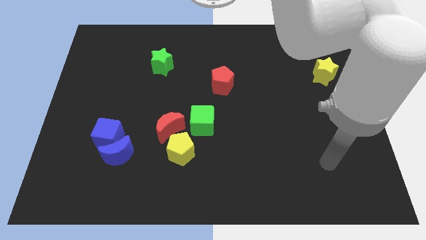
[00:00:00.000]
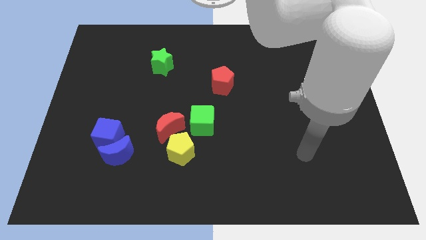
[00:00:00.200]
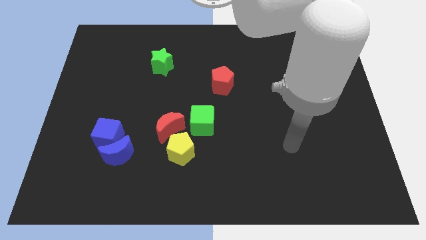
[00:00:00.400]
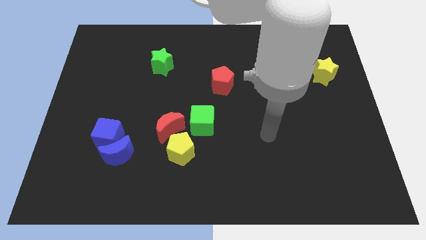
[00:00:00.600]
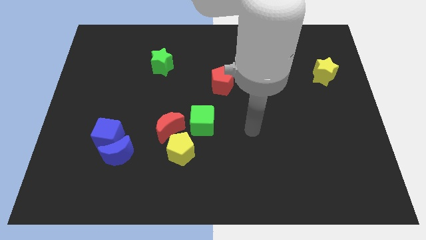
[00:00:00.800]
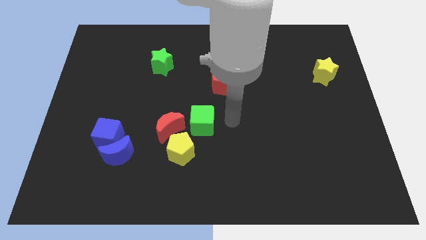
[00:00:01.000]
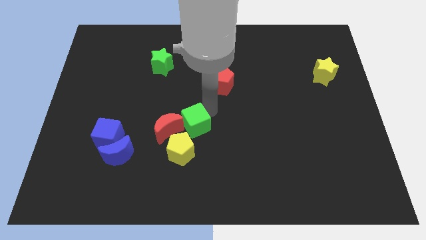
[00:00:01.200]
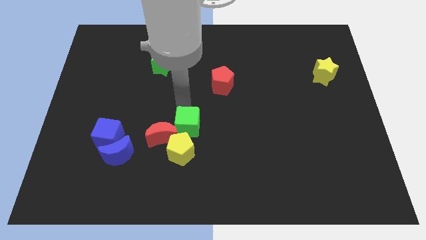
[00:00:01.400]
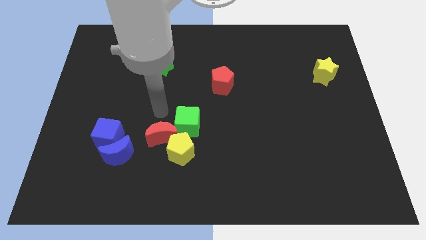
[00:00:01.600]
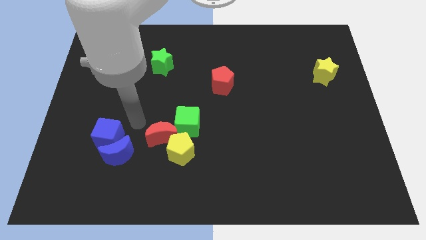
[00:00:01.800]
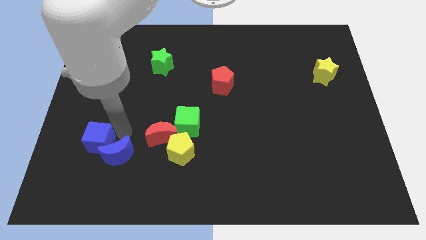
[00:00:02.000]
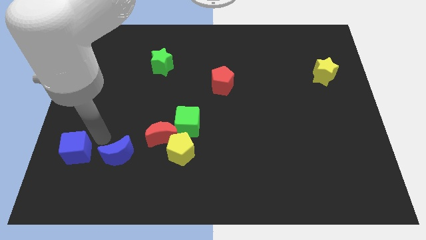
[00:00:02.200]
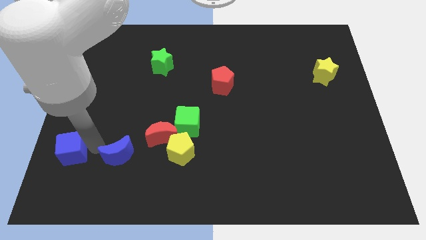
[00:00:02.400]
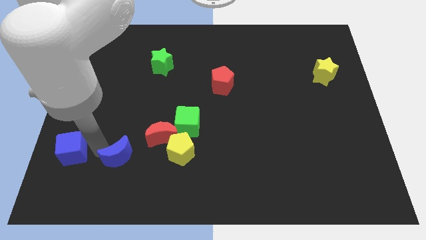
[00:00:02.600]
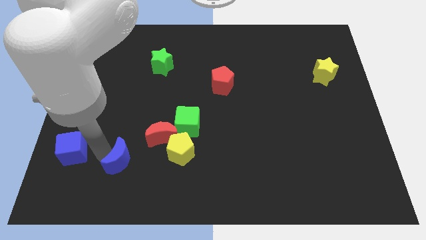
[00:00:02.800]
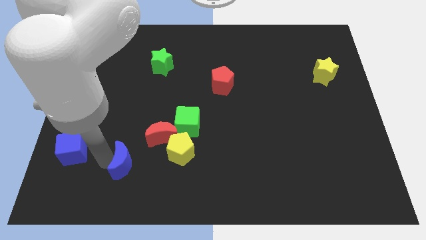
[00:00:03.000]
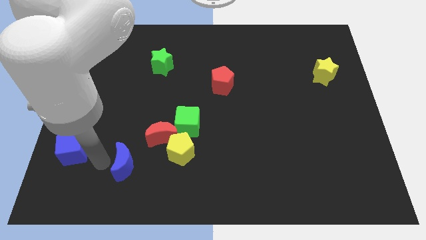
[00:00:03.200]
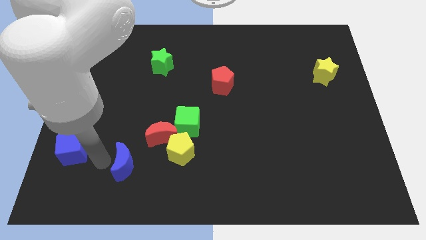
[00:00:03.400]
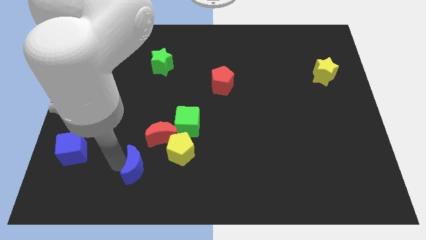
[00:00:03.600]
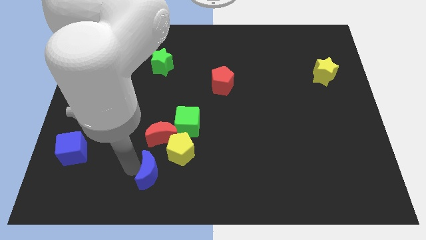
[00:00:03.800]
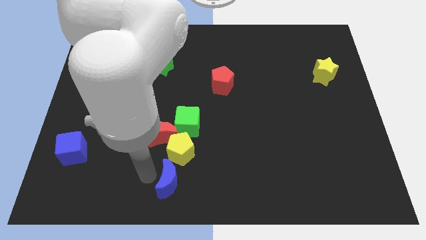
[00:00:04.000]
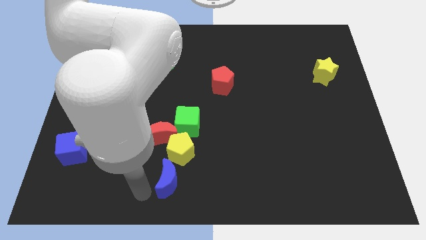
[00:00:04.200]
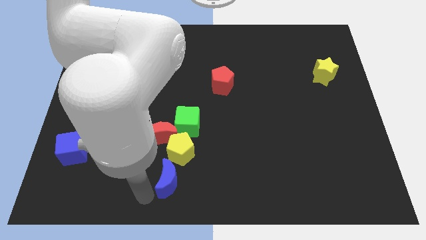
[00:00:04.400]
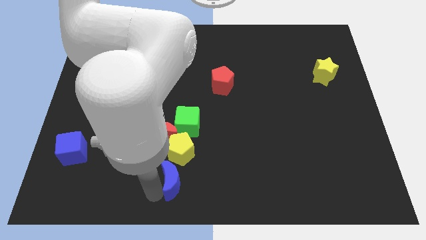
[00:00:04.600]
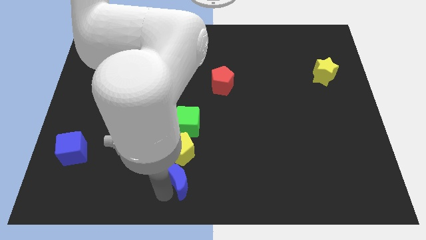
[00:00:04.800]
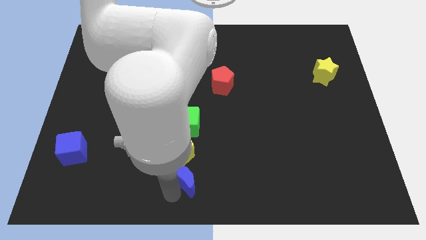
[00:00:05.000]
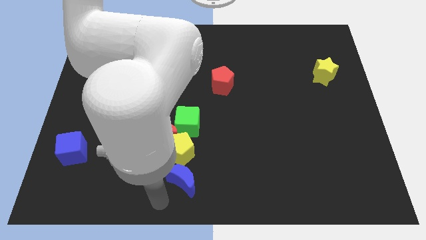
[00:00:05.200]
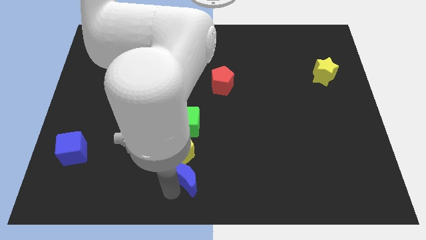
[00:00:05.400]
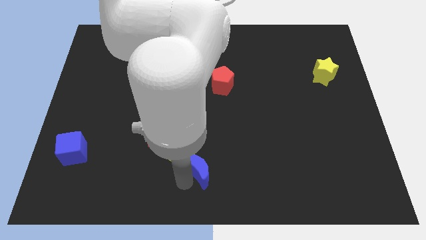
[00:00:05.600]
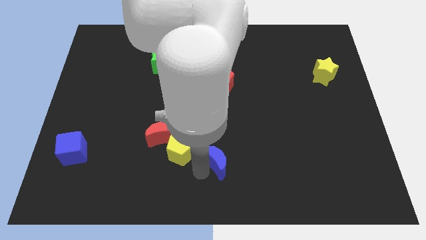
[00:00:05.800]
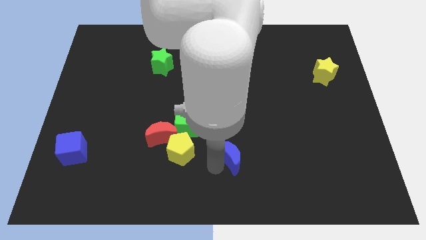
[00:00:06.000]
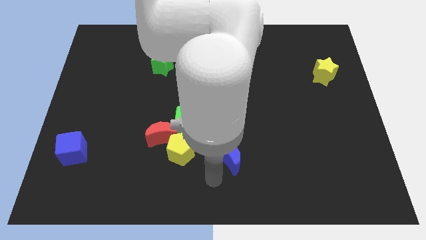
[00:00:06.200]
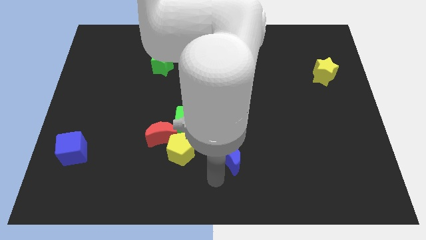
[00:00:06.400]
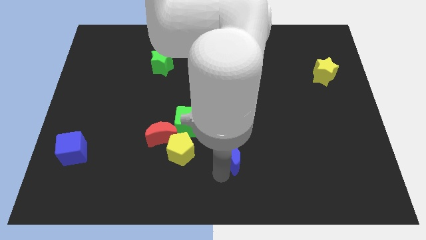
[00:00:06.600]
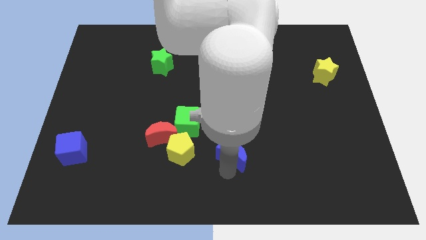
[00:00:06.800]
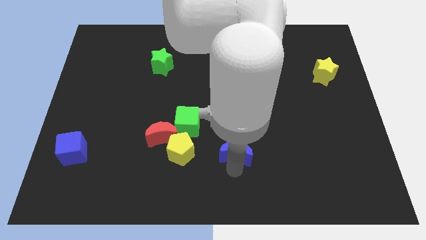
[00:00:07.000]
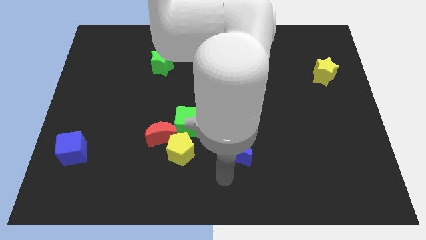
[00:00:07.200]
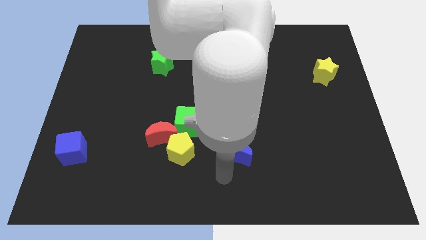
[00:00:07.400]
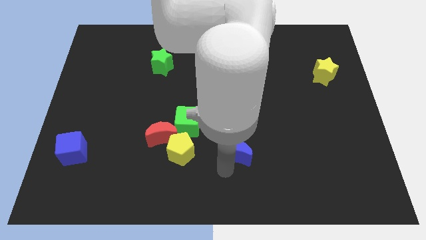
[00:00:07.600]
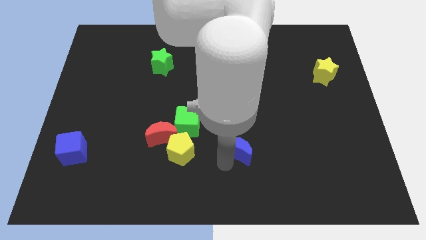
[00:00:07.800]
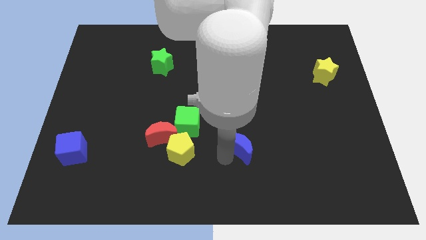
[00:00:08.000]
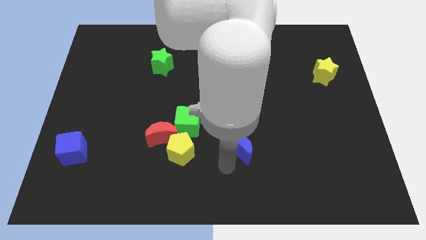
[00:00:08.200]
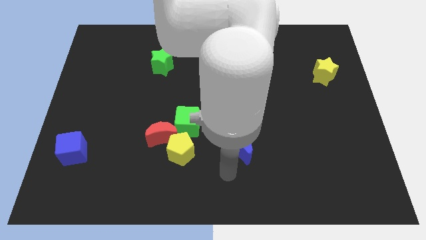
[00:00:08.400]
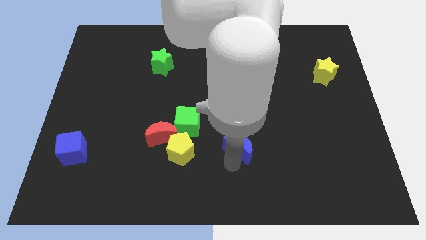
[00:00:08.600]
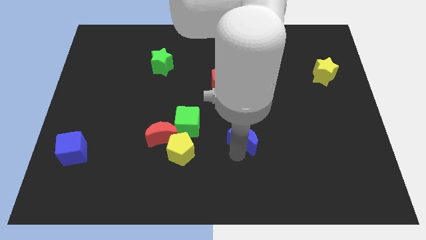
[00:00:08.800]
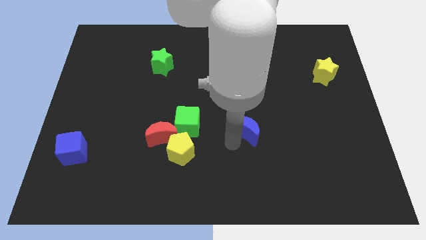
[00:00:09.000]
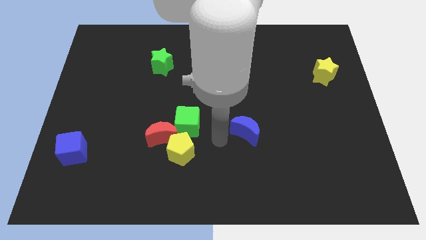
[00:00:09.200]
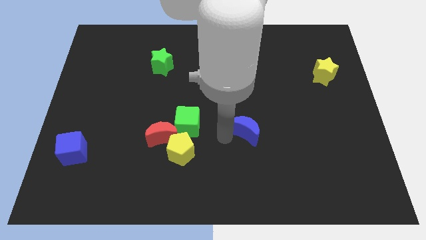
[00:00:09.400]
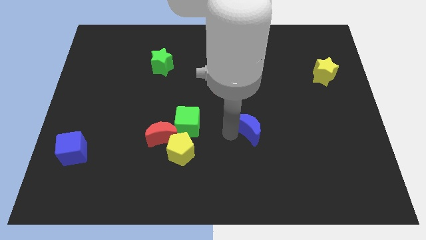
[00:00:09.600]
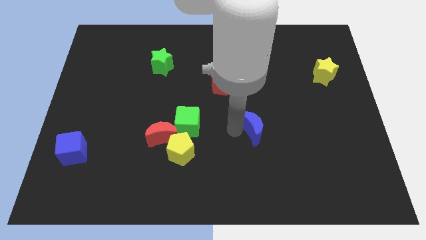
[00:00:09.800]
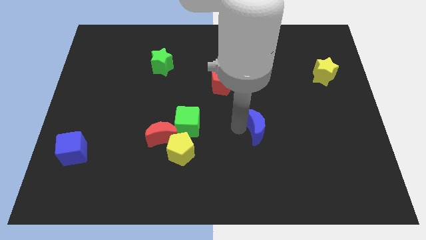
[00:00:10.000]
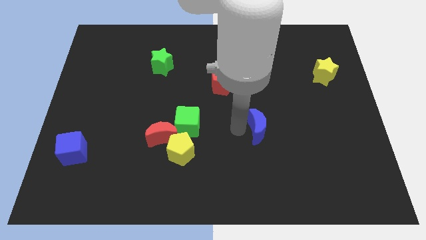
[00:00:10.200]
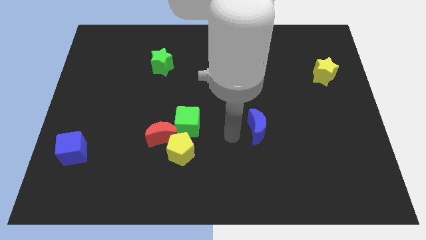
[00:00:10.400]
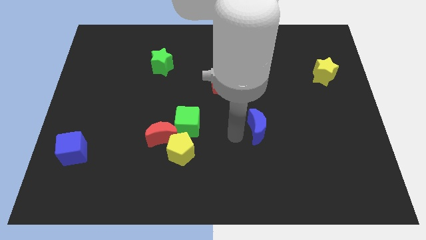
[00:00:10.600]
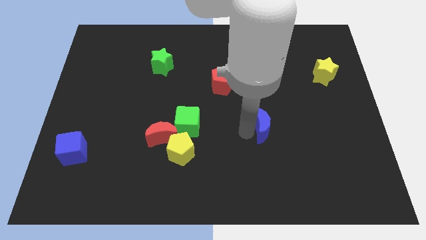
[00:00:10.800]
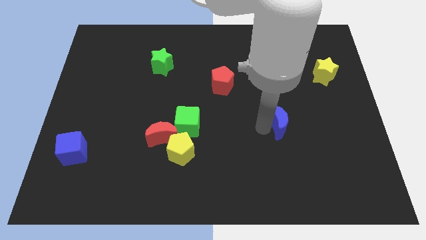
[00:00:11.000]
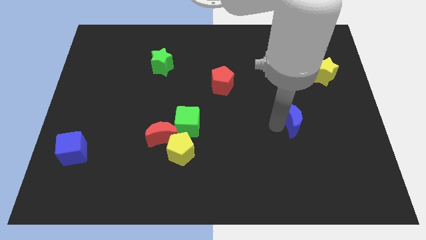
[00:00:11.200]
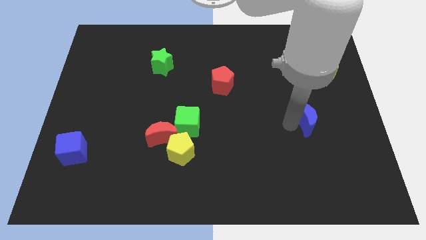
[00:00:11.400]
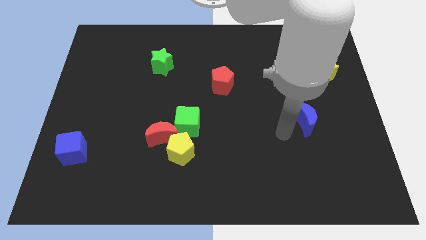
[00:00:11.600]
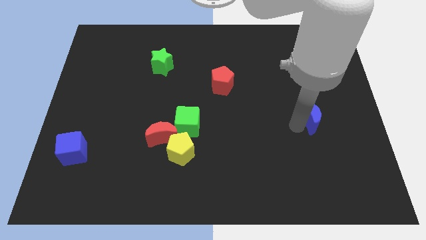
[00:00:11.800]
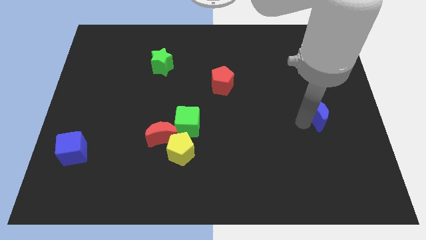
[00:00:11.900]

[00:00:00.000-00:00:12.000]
put the blue moon to the bottom of the yellow star

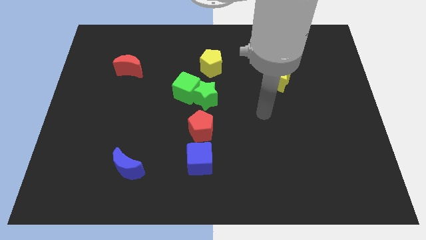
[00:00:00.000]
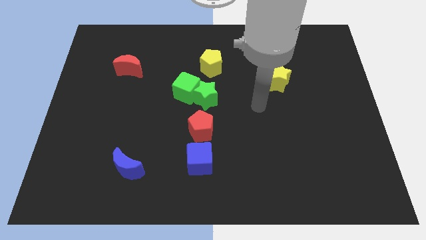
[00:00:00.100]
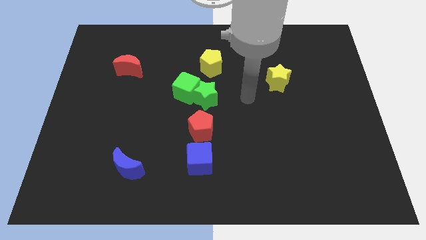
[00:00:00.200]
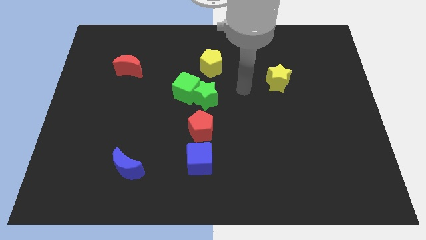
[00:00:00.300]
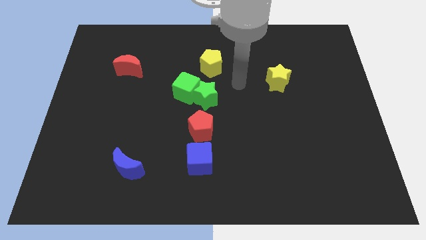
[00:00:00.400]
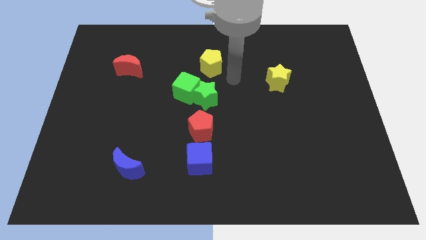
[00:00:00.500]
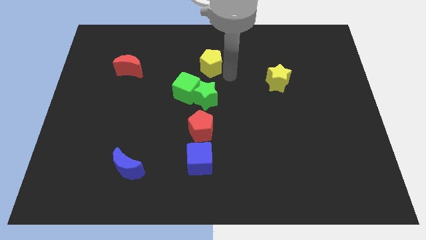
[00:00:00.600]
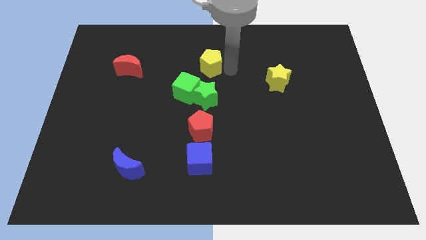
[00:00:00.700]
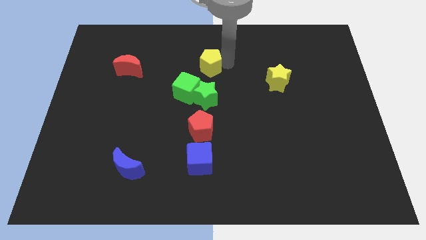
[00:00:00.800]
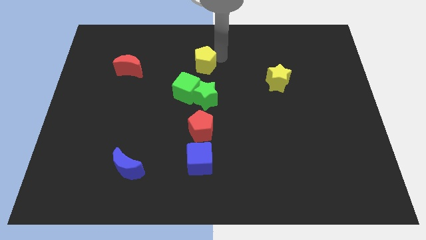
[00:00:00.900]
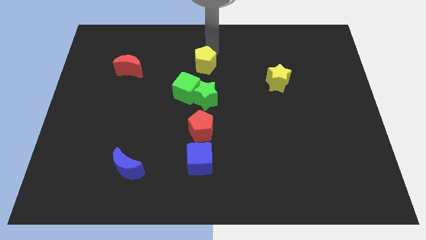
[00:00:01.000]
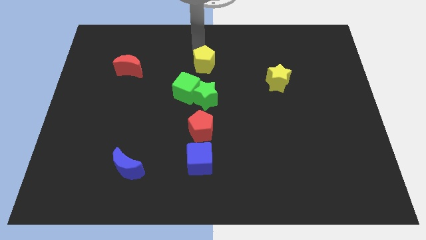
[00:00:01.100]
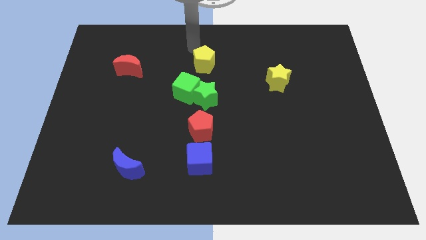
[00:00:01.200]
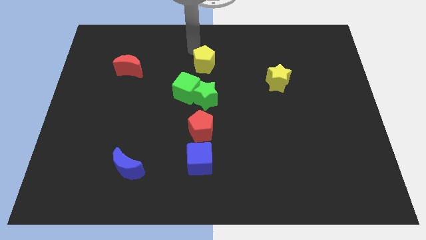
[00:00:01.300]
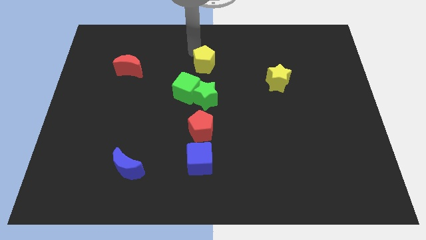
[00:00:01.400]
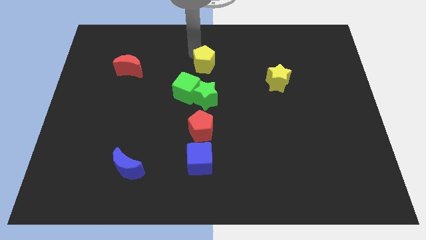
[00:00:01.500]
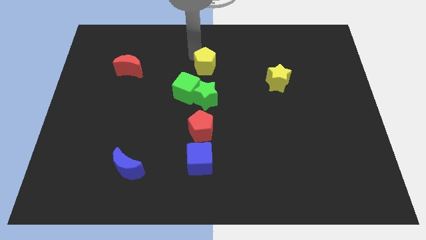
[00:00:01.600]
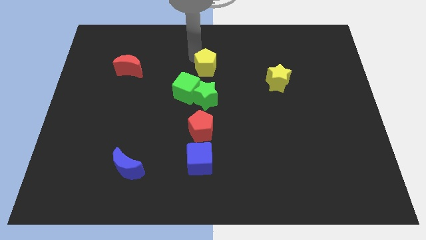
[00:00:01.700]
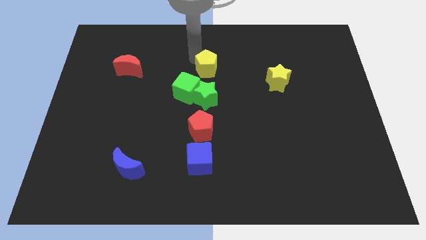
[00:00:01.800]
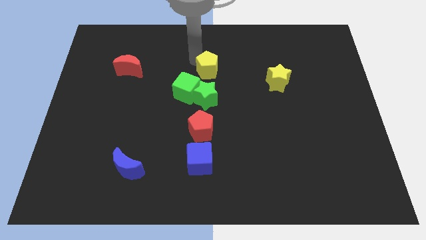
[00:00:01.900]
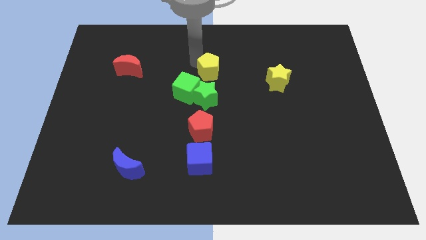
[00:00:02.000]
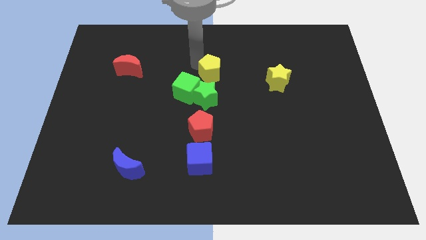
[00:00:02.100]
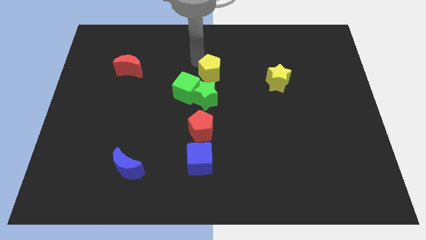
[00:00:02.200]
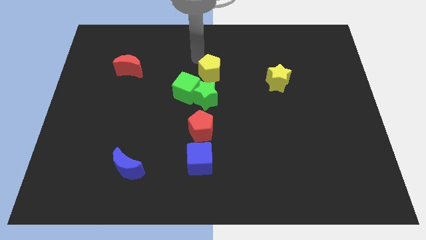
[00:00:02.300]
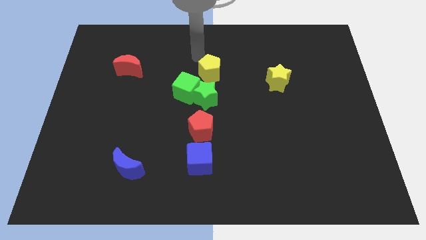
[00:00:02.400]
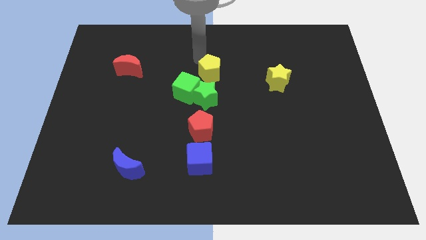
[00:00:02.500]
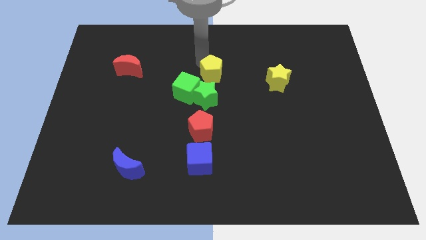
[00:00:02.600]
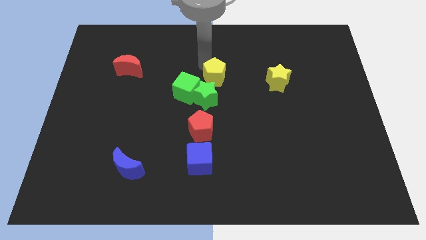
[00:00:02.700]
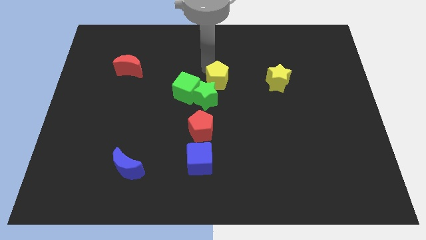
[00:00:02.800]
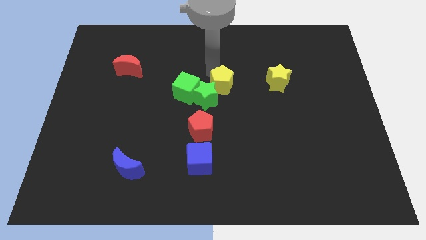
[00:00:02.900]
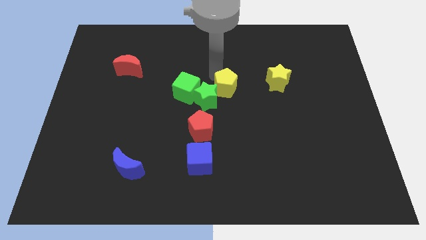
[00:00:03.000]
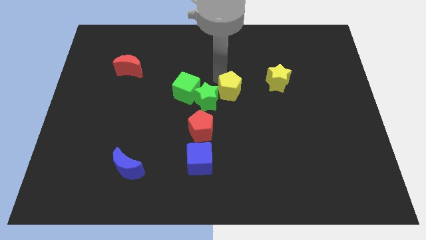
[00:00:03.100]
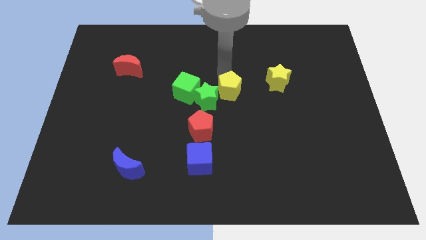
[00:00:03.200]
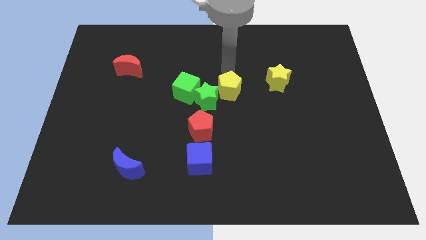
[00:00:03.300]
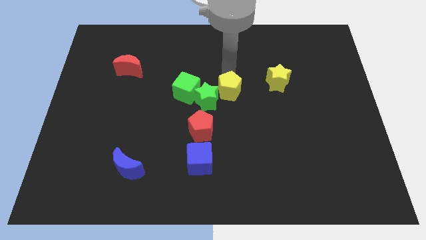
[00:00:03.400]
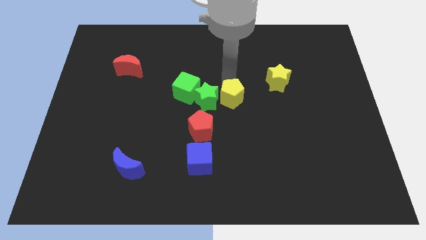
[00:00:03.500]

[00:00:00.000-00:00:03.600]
slide the yellow pentagon to the bottom right of the green star
